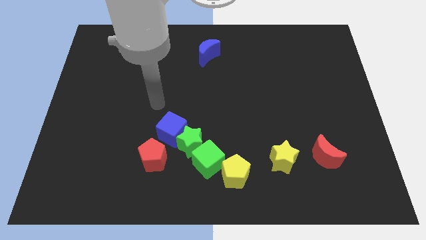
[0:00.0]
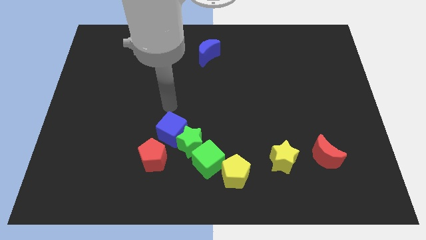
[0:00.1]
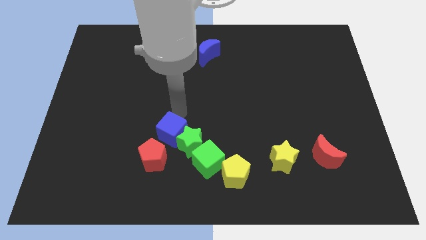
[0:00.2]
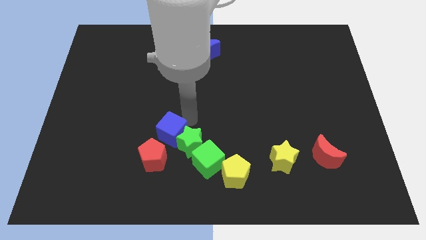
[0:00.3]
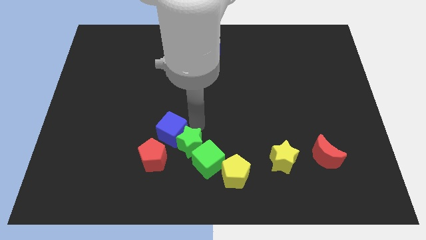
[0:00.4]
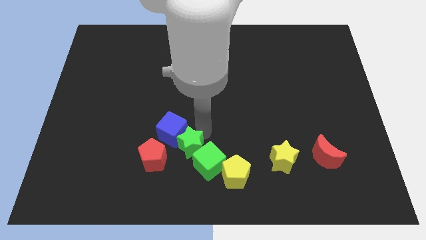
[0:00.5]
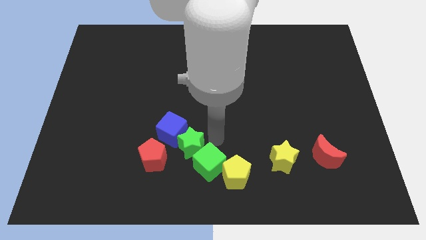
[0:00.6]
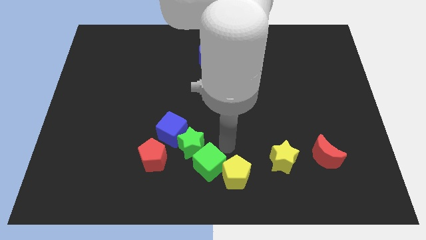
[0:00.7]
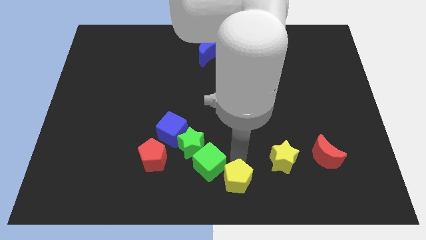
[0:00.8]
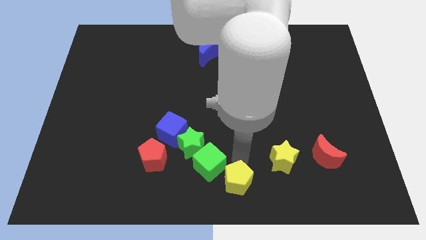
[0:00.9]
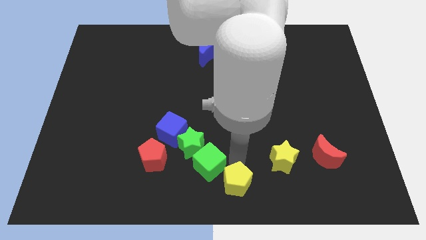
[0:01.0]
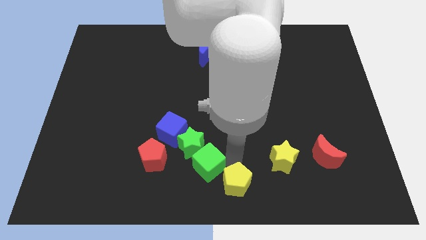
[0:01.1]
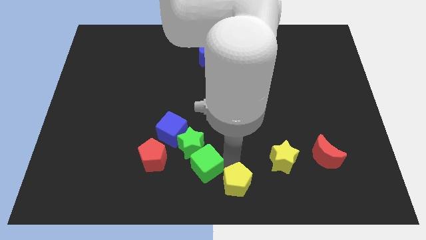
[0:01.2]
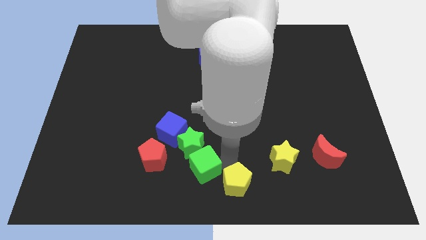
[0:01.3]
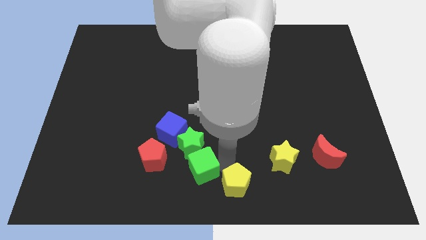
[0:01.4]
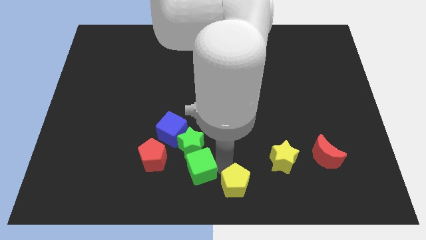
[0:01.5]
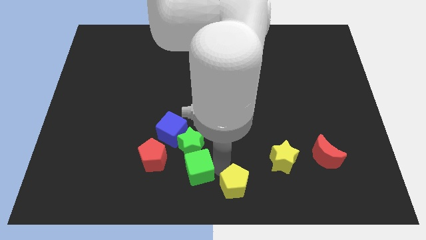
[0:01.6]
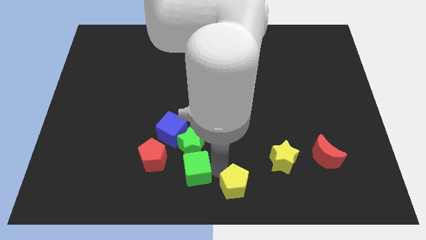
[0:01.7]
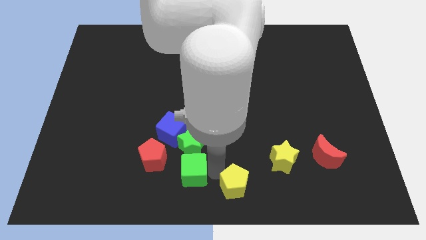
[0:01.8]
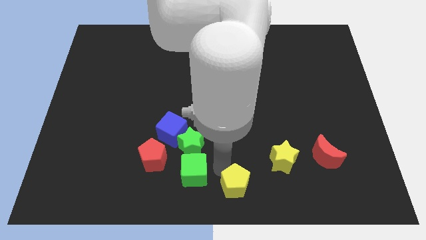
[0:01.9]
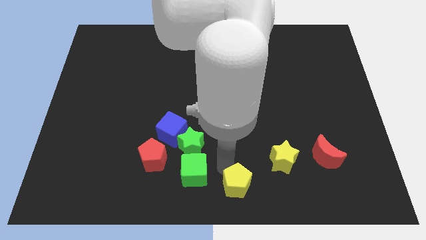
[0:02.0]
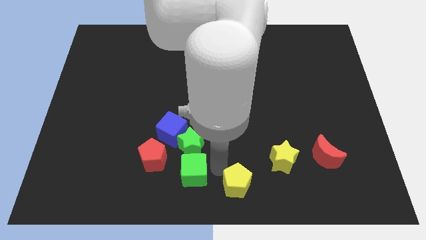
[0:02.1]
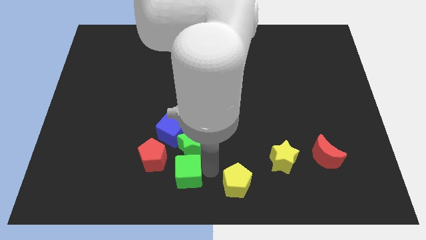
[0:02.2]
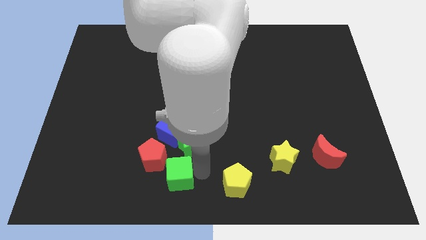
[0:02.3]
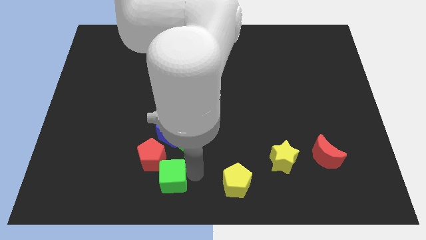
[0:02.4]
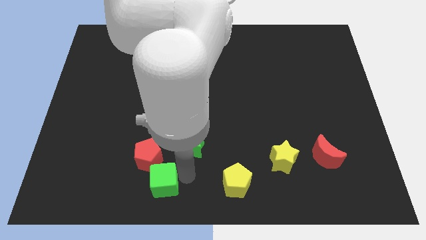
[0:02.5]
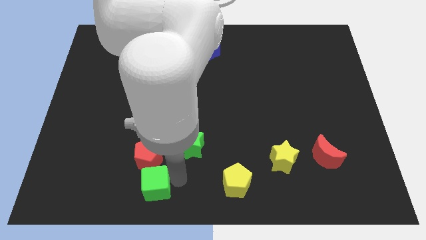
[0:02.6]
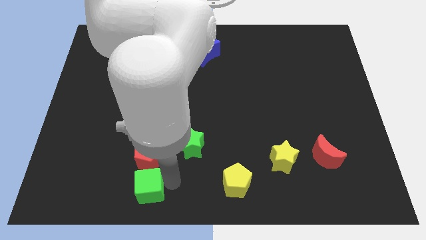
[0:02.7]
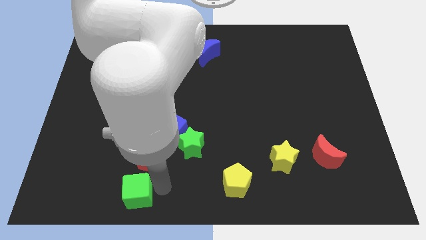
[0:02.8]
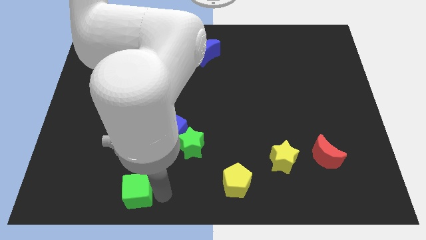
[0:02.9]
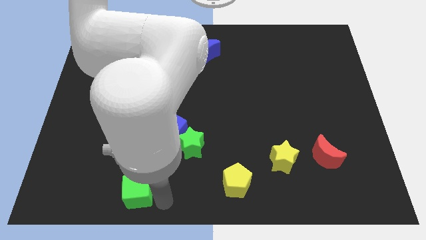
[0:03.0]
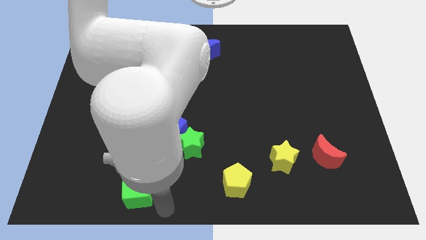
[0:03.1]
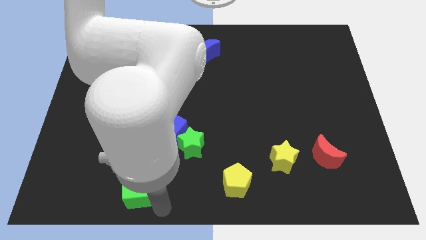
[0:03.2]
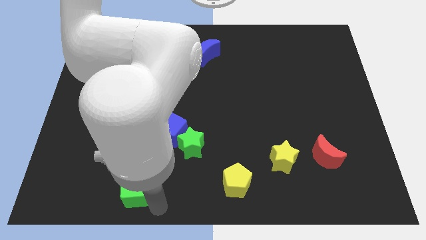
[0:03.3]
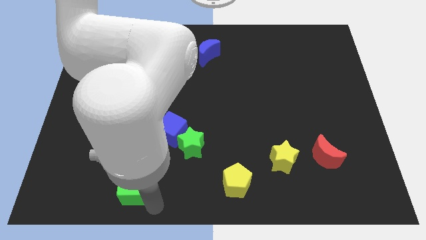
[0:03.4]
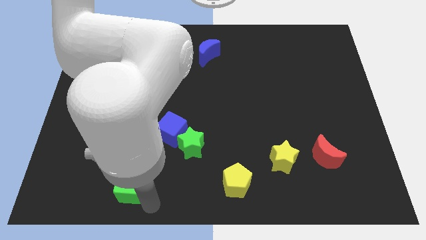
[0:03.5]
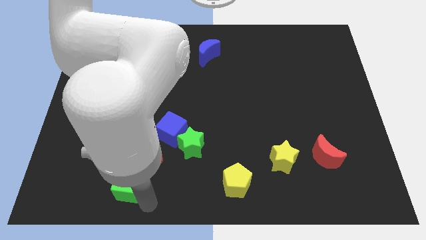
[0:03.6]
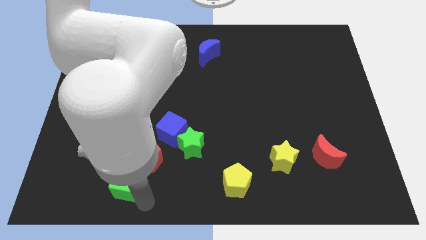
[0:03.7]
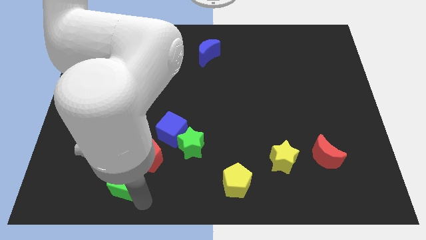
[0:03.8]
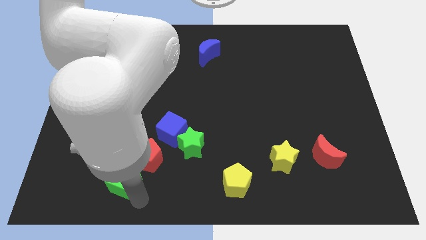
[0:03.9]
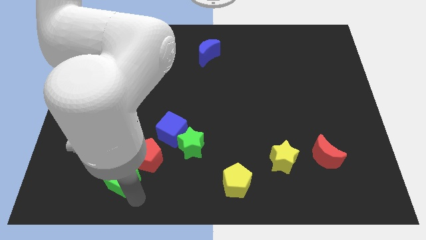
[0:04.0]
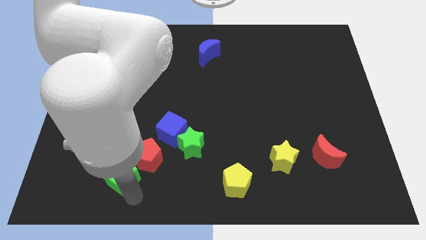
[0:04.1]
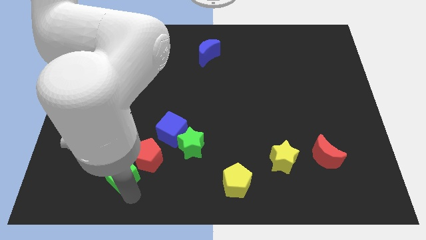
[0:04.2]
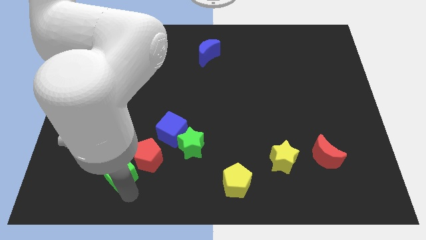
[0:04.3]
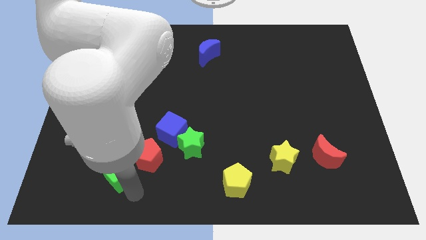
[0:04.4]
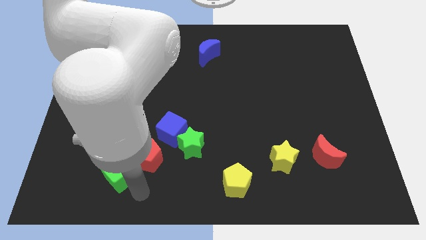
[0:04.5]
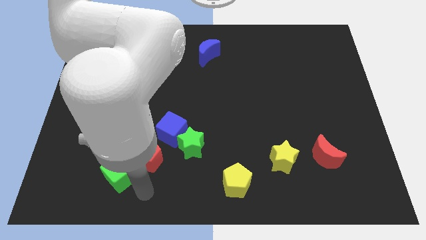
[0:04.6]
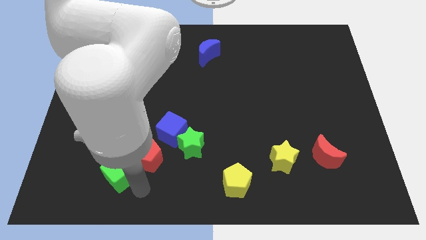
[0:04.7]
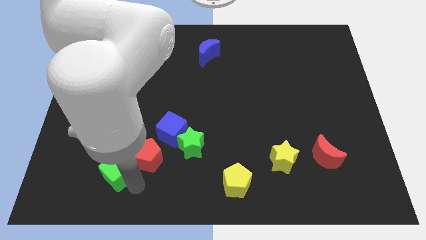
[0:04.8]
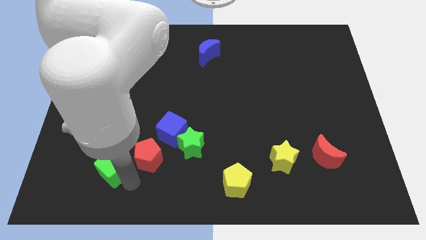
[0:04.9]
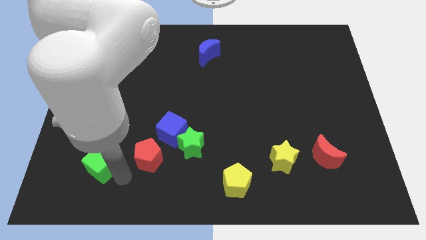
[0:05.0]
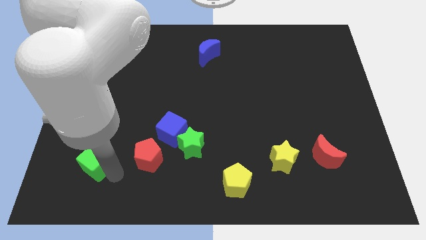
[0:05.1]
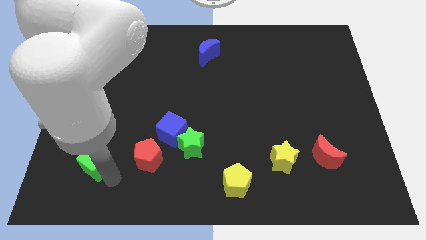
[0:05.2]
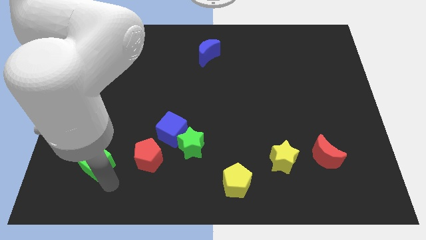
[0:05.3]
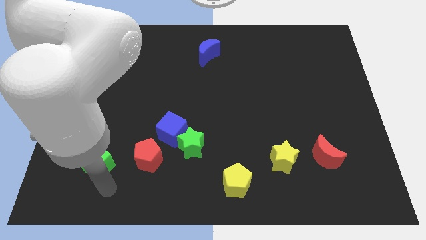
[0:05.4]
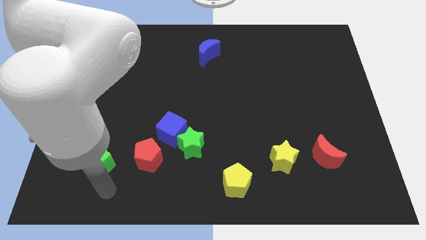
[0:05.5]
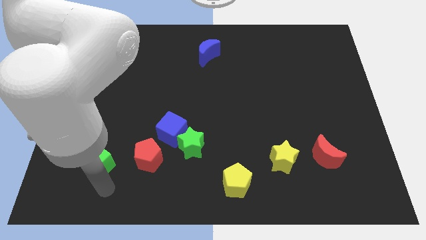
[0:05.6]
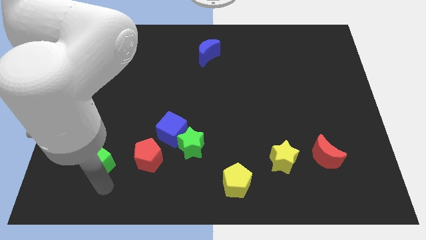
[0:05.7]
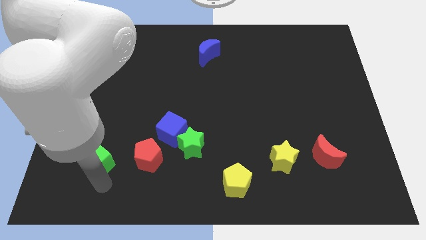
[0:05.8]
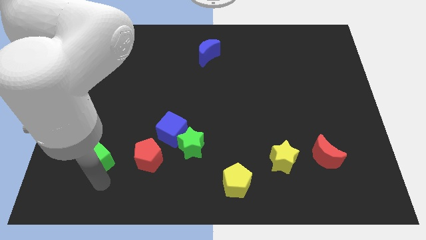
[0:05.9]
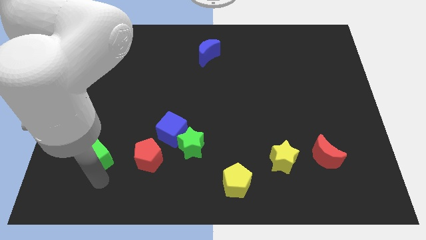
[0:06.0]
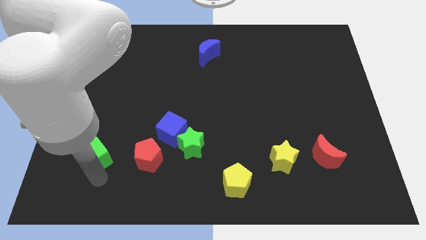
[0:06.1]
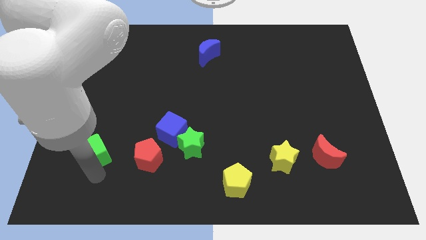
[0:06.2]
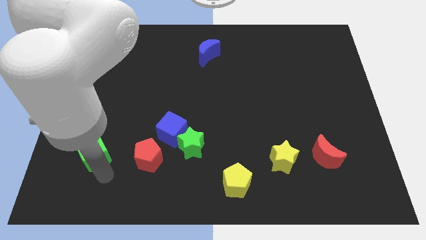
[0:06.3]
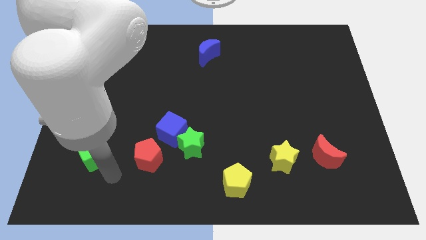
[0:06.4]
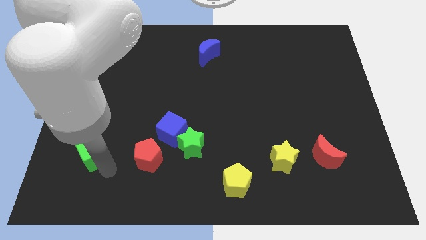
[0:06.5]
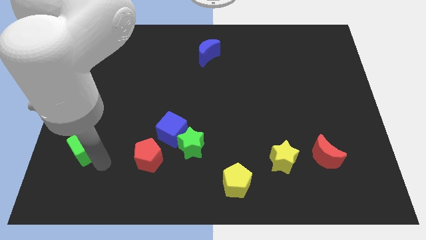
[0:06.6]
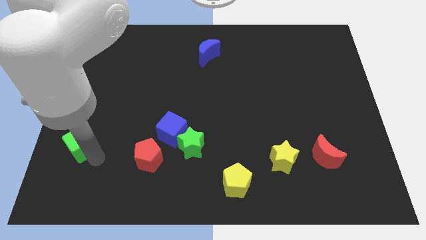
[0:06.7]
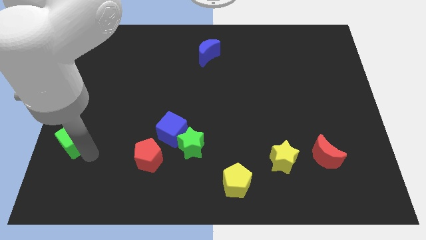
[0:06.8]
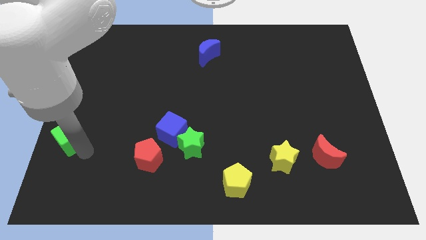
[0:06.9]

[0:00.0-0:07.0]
slide the green cube to the left side
